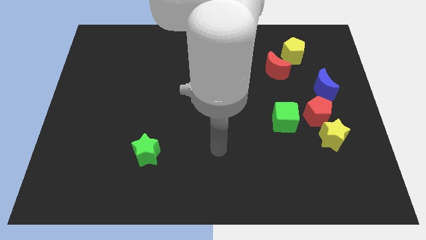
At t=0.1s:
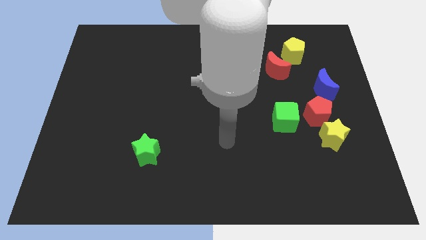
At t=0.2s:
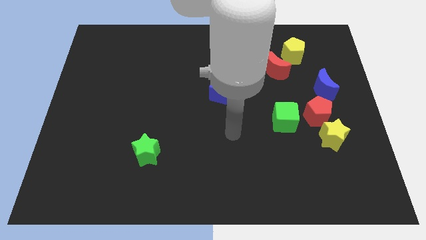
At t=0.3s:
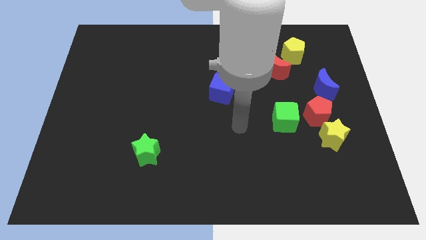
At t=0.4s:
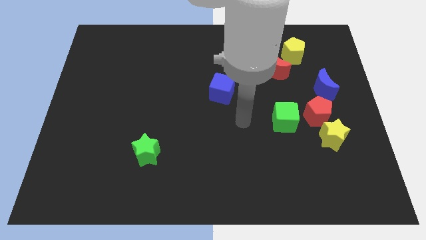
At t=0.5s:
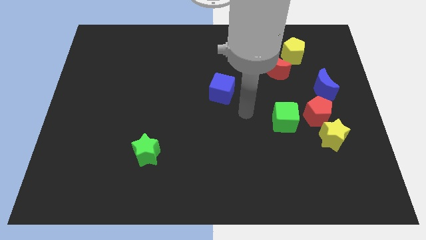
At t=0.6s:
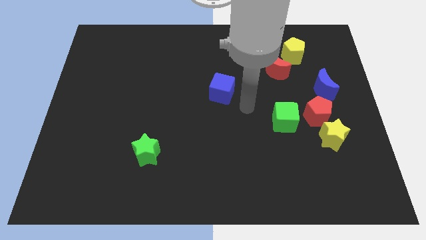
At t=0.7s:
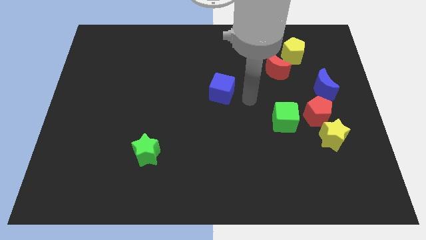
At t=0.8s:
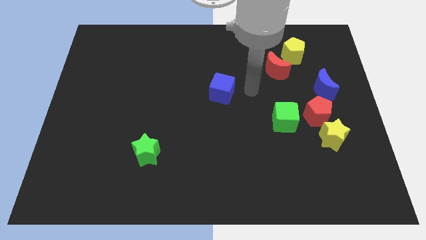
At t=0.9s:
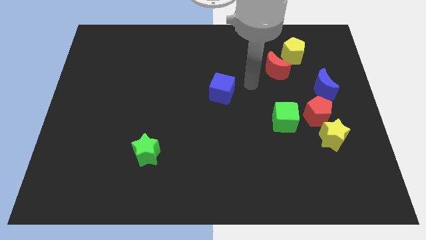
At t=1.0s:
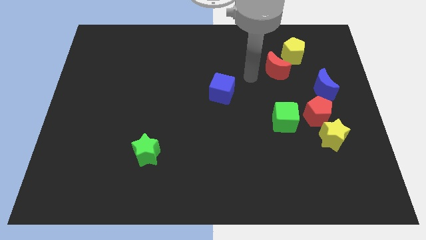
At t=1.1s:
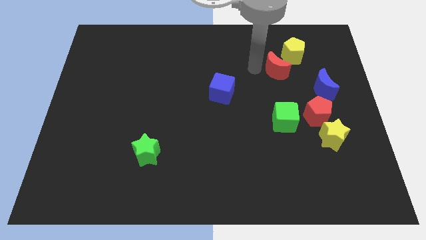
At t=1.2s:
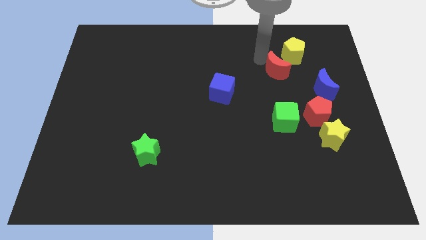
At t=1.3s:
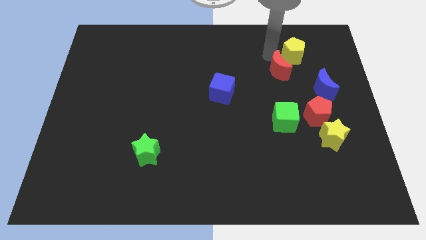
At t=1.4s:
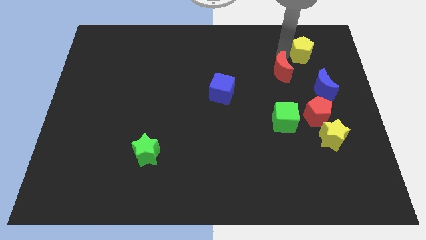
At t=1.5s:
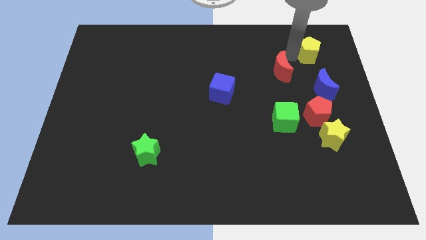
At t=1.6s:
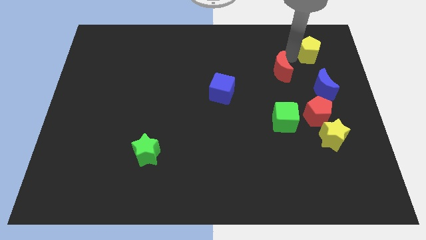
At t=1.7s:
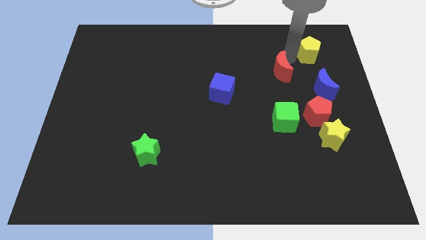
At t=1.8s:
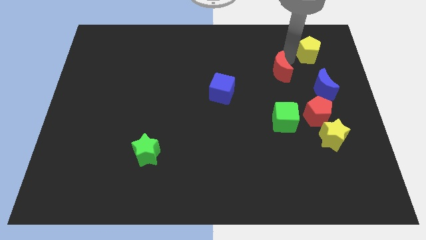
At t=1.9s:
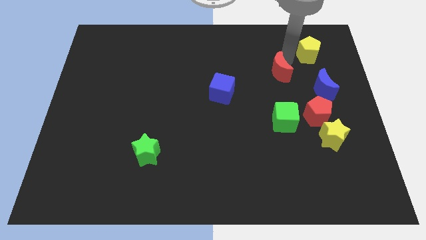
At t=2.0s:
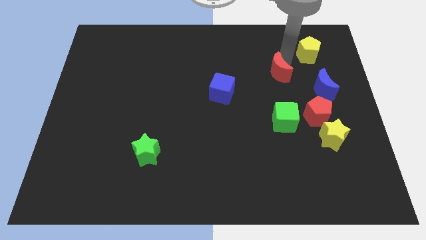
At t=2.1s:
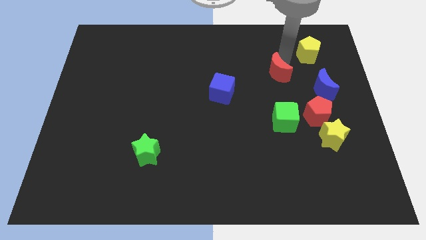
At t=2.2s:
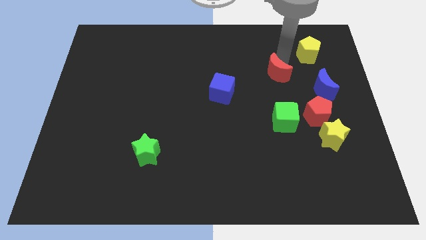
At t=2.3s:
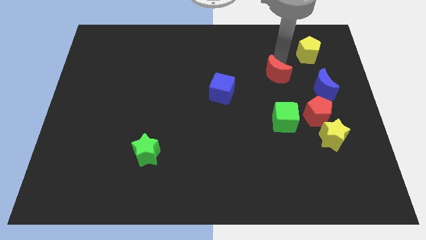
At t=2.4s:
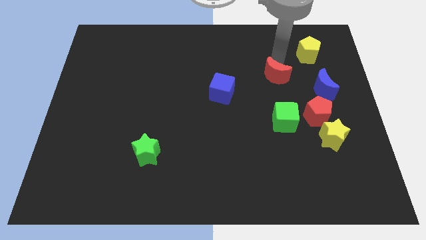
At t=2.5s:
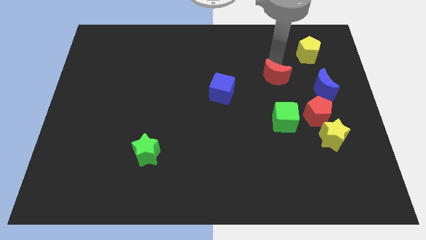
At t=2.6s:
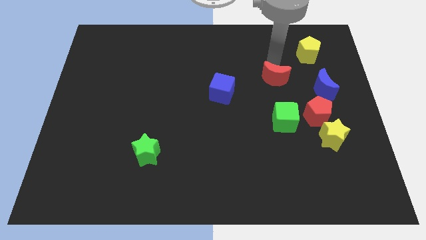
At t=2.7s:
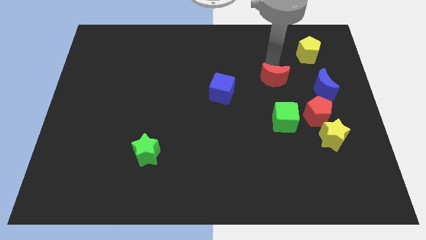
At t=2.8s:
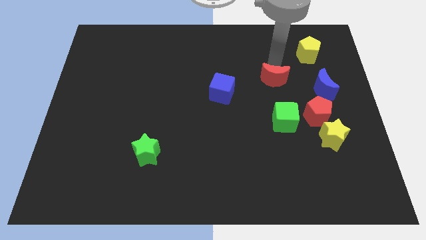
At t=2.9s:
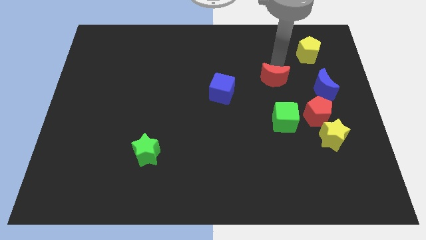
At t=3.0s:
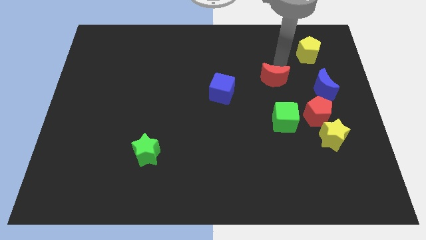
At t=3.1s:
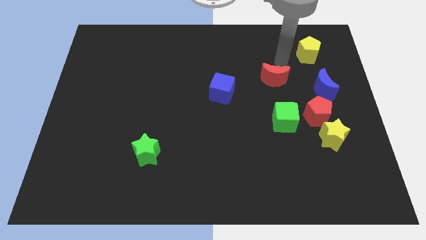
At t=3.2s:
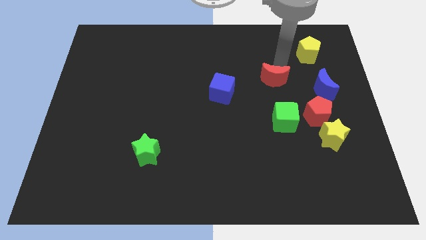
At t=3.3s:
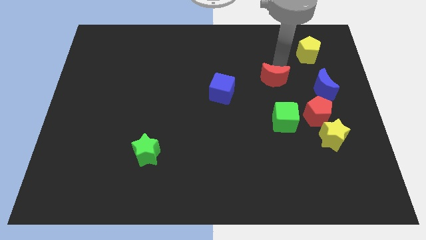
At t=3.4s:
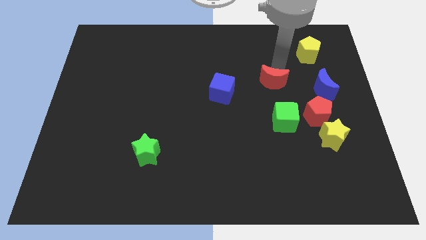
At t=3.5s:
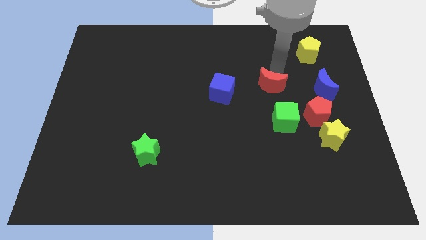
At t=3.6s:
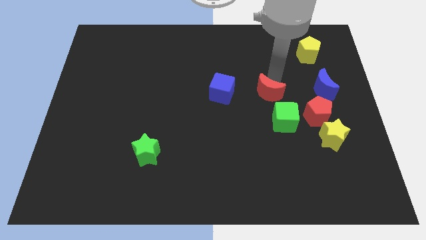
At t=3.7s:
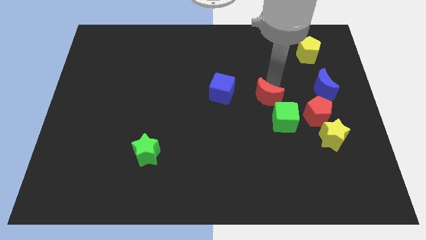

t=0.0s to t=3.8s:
move the red moon a bit down and to the left diagonally

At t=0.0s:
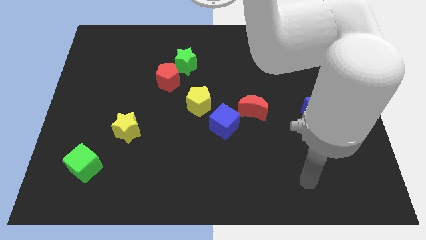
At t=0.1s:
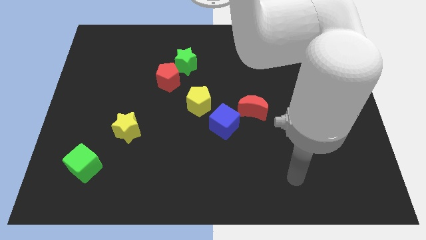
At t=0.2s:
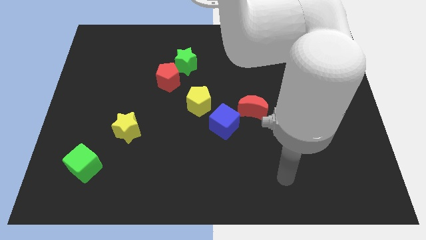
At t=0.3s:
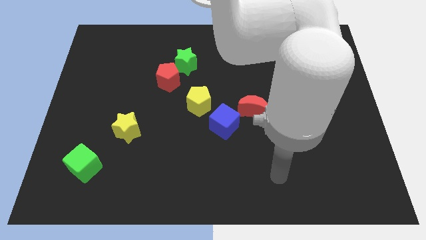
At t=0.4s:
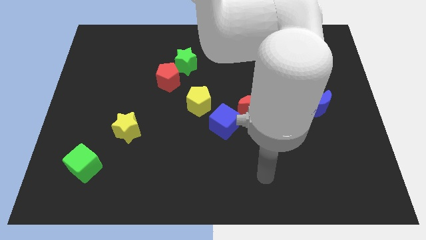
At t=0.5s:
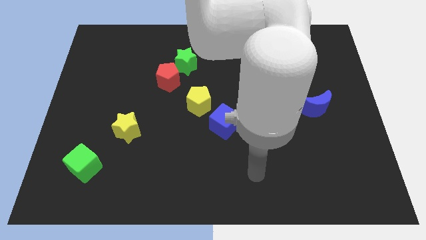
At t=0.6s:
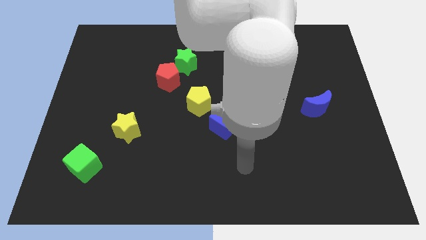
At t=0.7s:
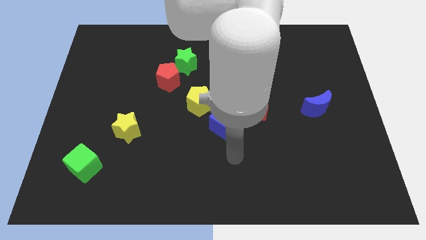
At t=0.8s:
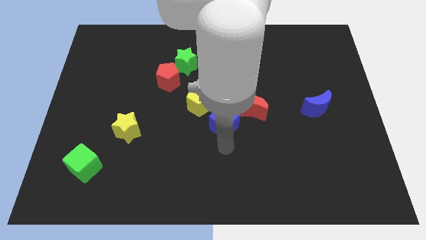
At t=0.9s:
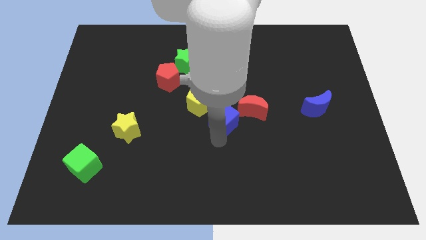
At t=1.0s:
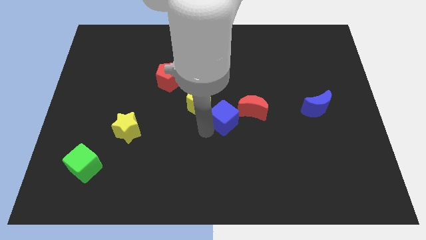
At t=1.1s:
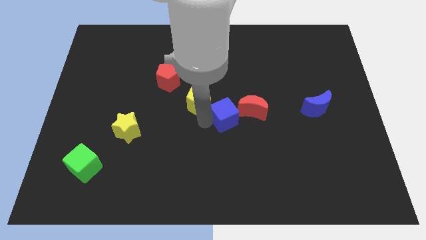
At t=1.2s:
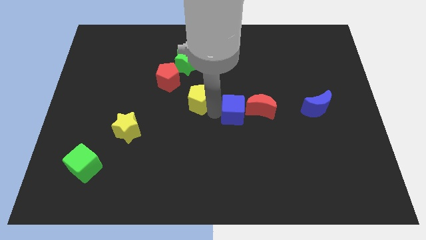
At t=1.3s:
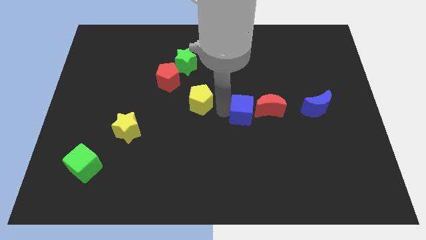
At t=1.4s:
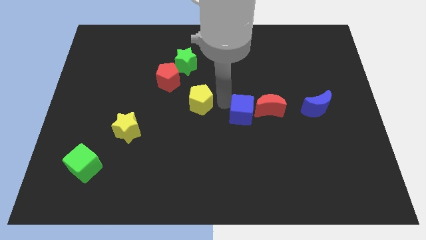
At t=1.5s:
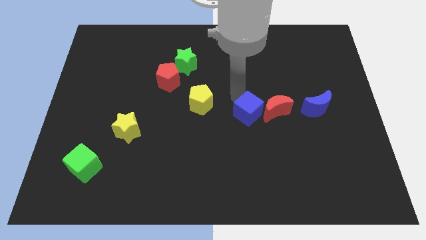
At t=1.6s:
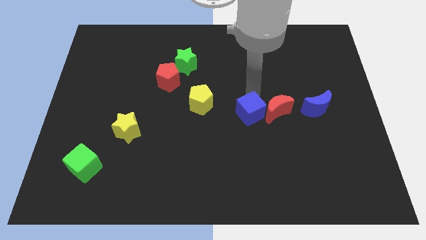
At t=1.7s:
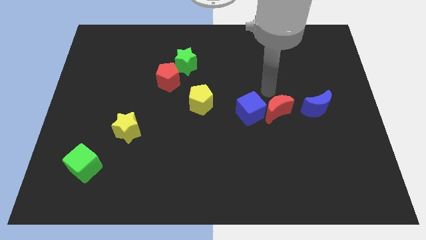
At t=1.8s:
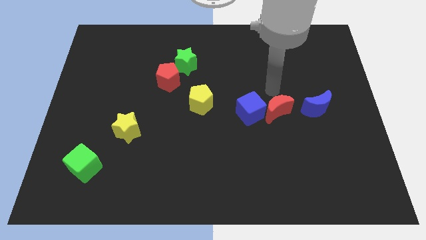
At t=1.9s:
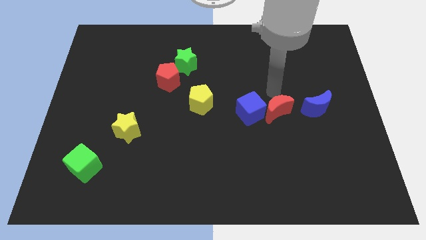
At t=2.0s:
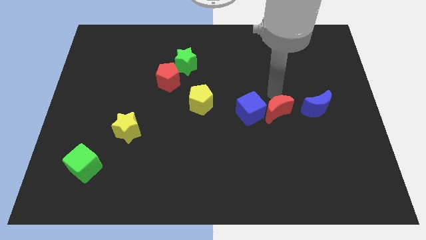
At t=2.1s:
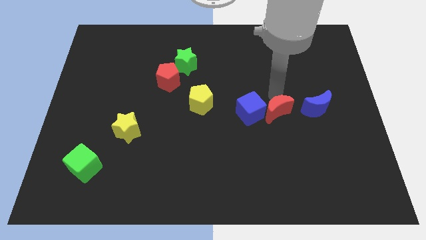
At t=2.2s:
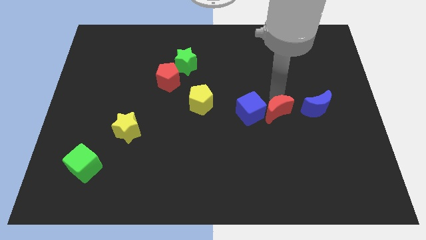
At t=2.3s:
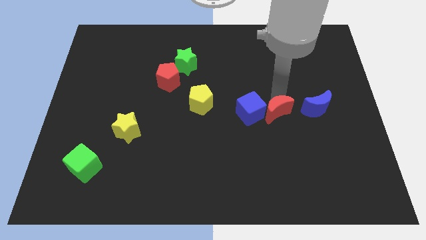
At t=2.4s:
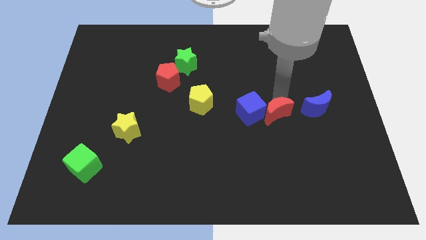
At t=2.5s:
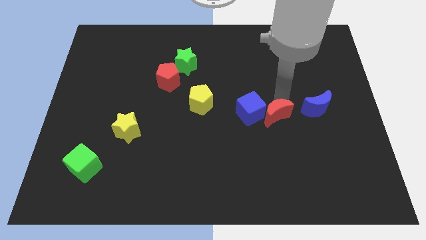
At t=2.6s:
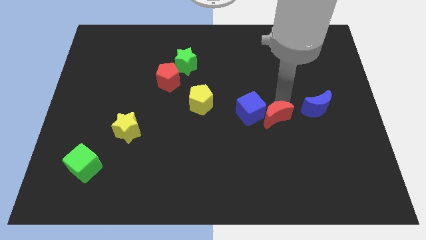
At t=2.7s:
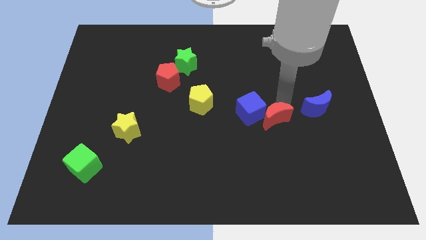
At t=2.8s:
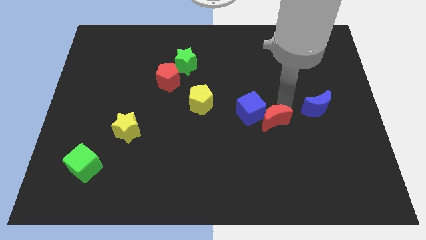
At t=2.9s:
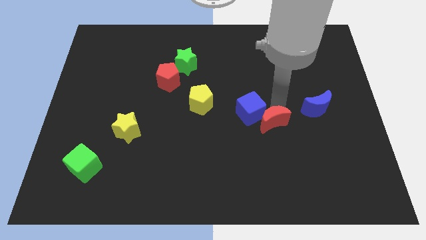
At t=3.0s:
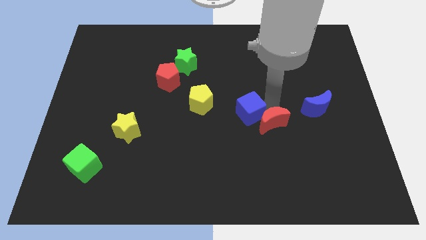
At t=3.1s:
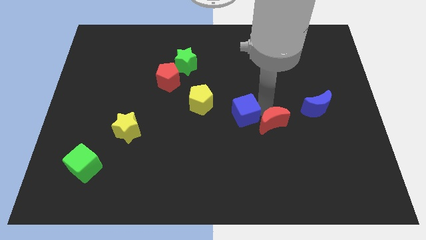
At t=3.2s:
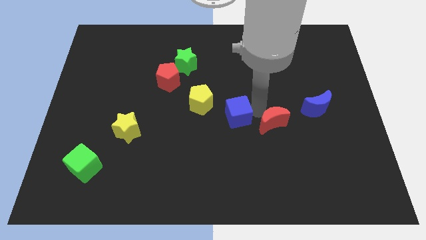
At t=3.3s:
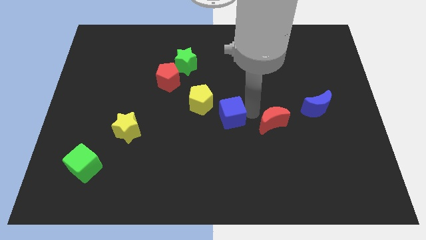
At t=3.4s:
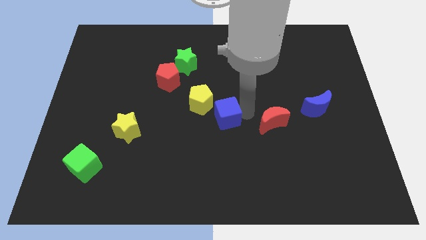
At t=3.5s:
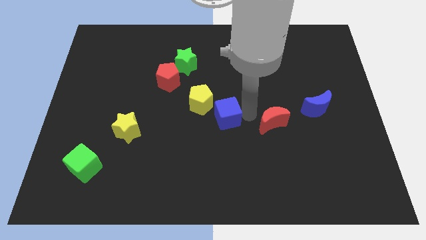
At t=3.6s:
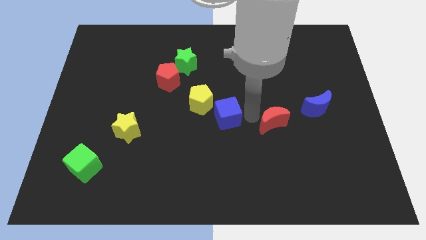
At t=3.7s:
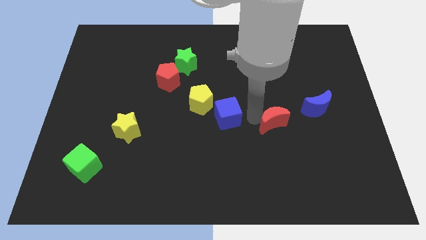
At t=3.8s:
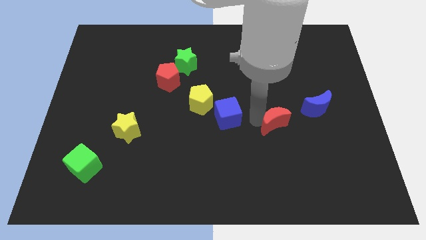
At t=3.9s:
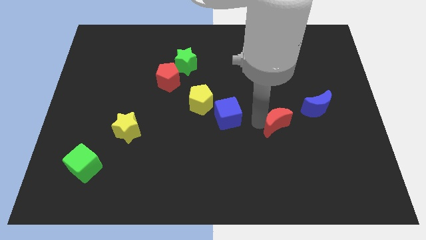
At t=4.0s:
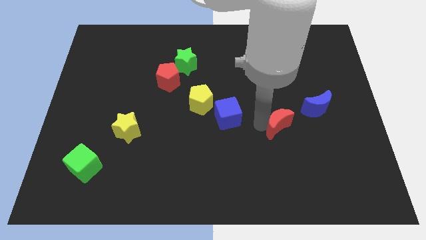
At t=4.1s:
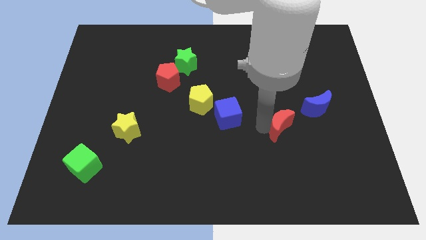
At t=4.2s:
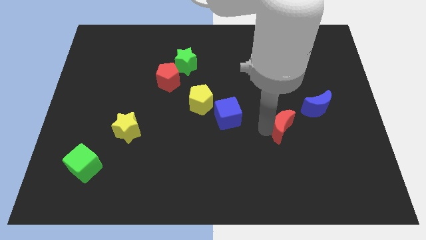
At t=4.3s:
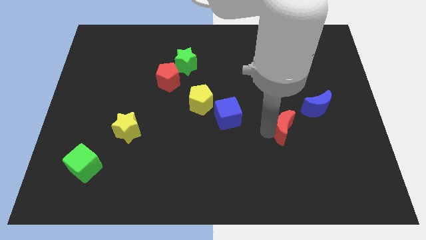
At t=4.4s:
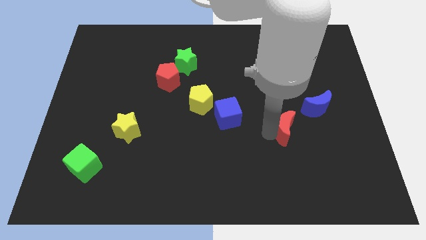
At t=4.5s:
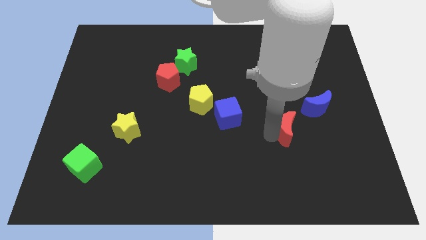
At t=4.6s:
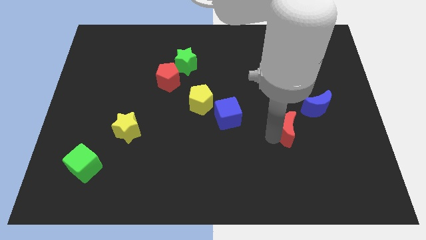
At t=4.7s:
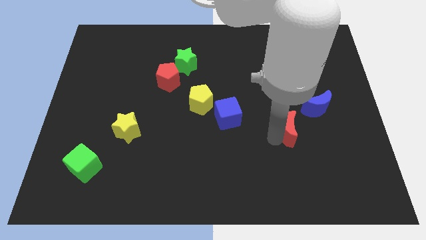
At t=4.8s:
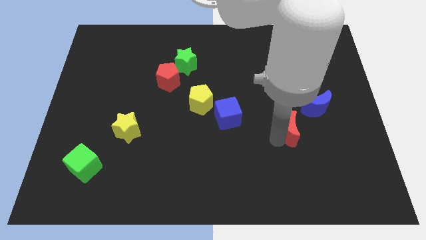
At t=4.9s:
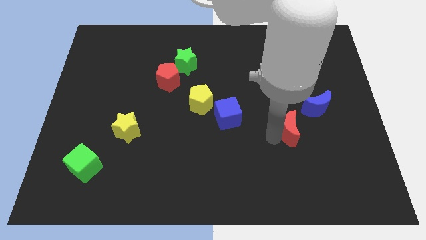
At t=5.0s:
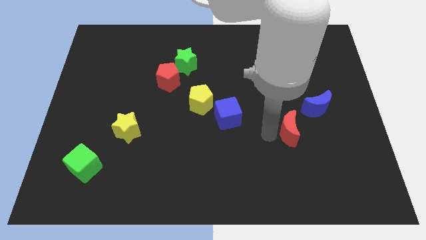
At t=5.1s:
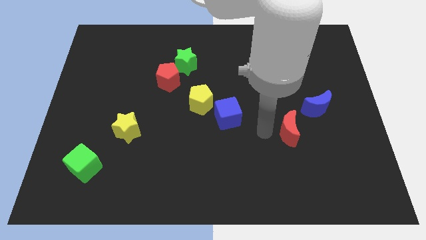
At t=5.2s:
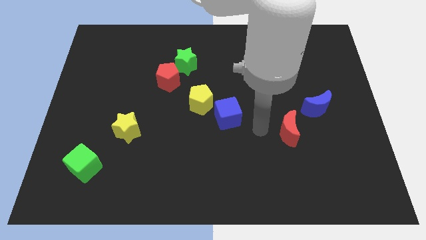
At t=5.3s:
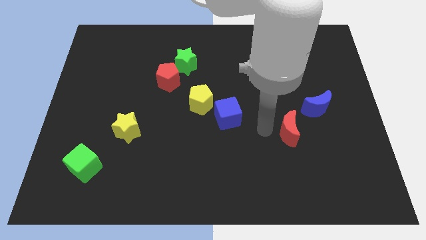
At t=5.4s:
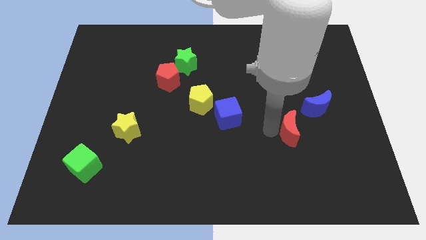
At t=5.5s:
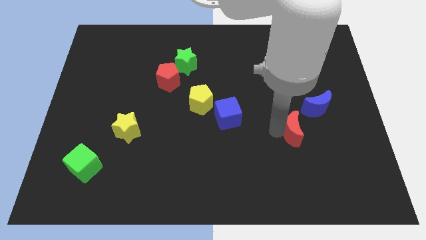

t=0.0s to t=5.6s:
slide the red moon a little to the right
